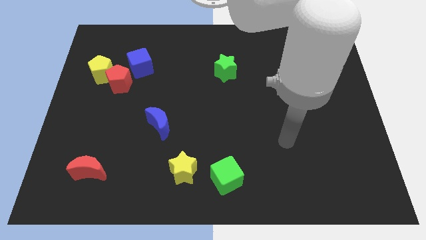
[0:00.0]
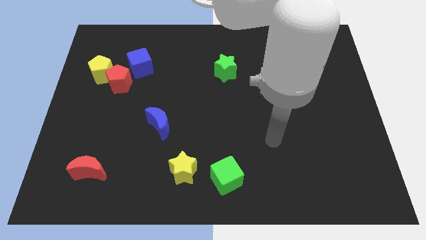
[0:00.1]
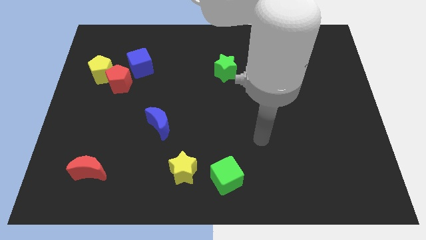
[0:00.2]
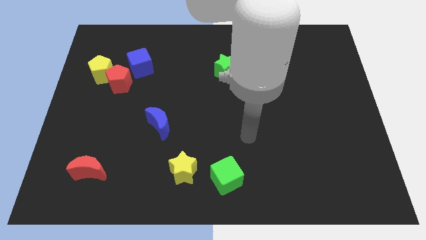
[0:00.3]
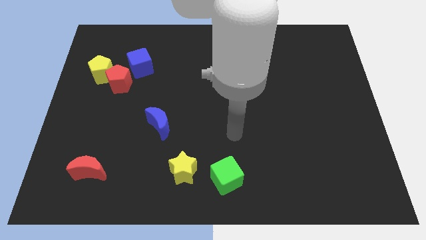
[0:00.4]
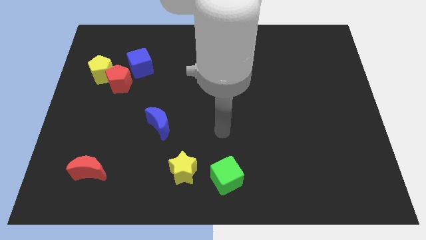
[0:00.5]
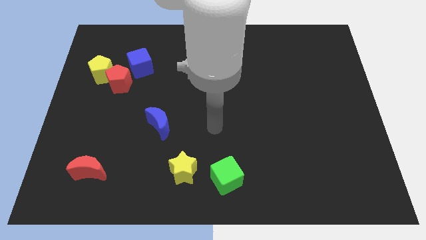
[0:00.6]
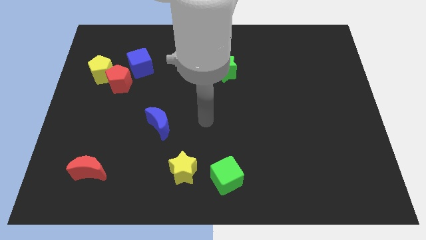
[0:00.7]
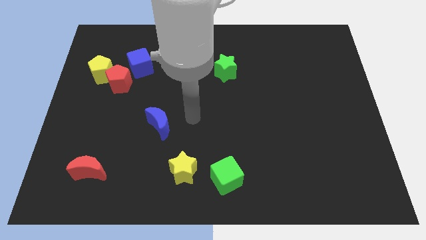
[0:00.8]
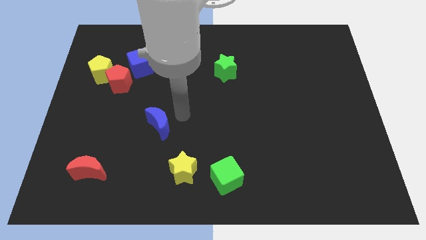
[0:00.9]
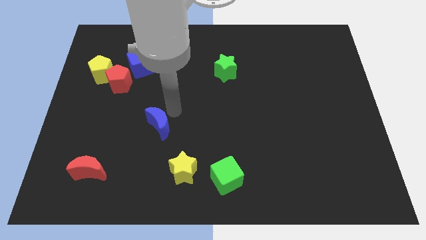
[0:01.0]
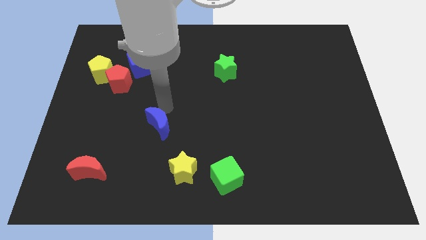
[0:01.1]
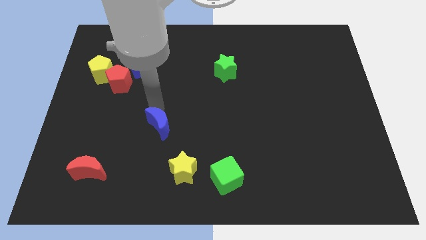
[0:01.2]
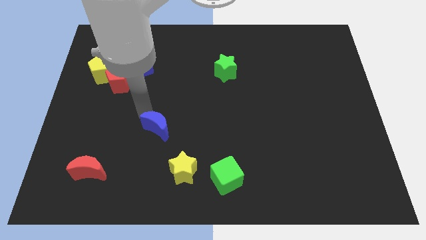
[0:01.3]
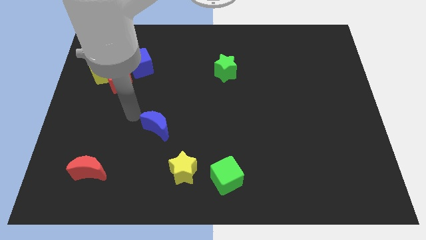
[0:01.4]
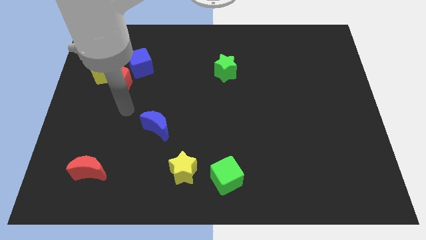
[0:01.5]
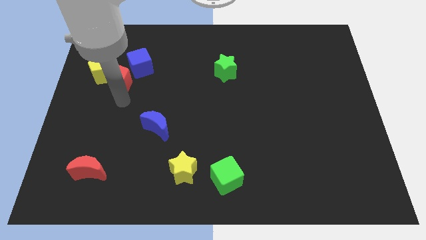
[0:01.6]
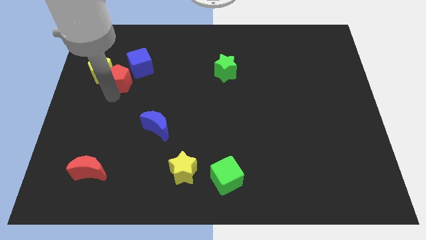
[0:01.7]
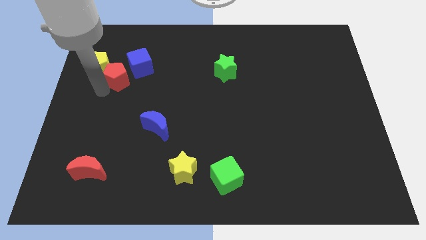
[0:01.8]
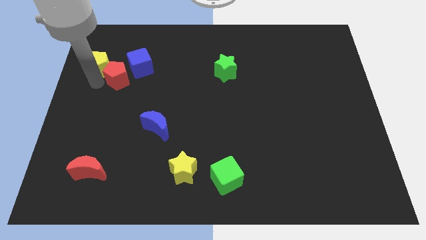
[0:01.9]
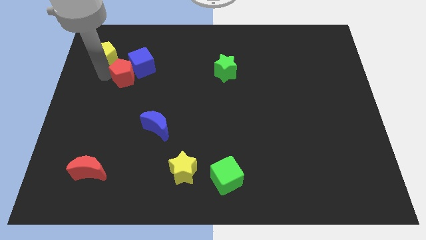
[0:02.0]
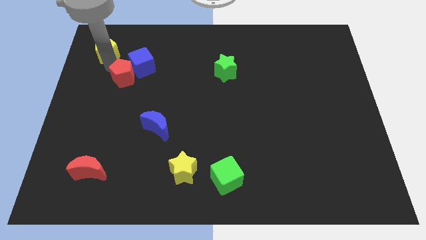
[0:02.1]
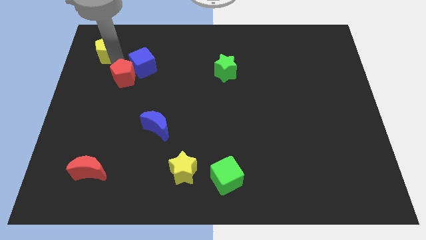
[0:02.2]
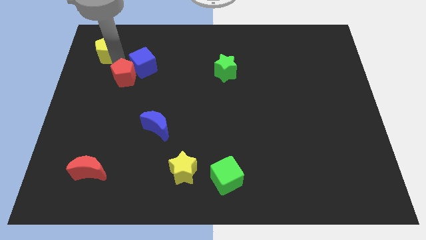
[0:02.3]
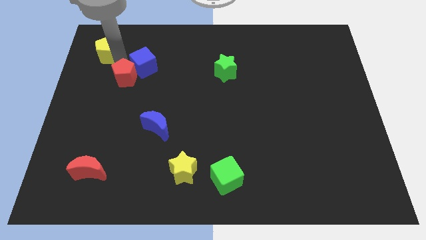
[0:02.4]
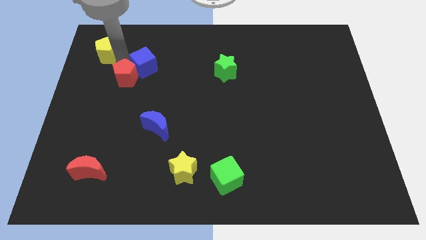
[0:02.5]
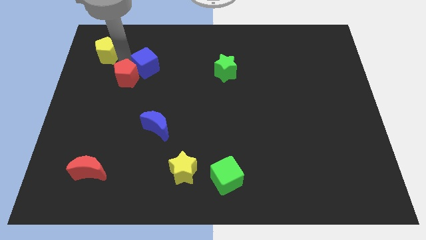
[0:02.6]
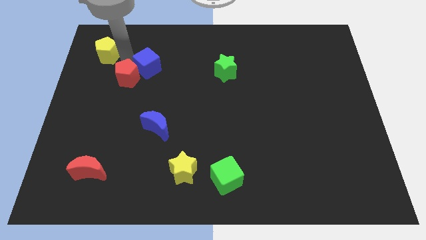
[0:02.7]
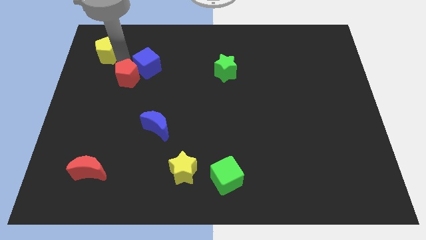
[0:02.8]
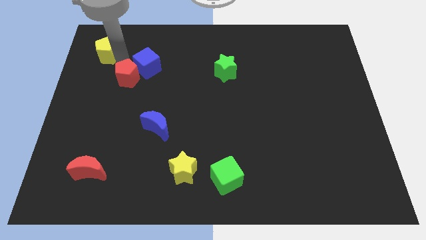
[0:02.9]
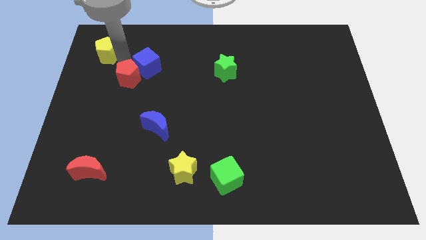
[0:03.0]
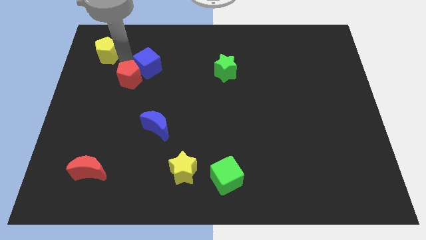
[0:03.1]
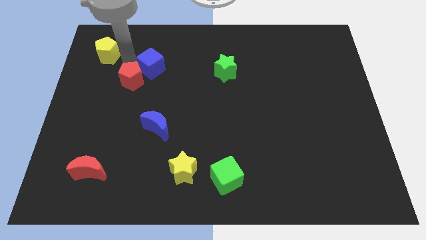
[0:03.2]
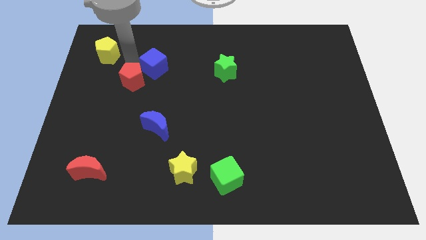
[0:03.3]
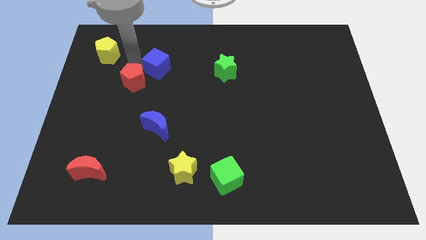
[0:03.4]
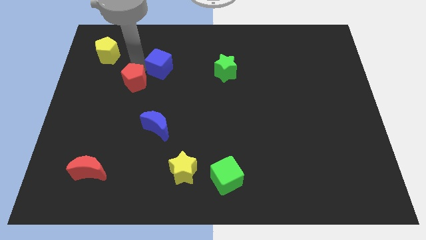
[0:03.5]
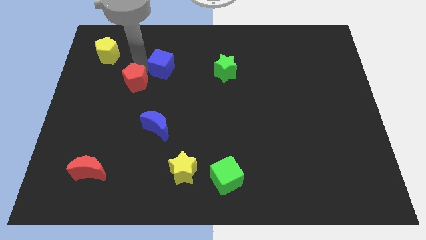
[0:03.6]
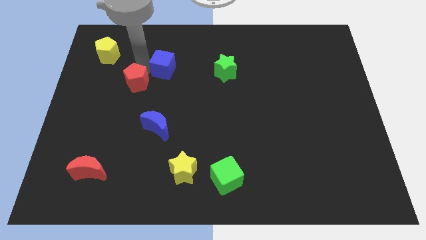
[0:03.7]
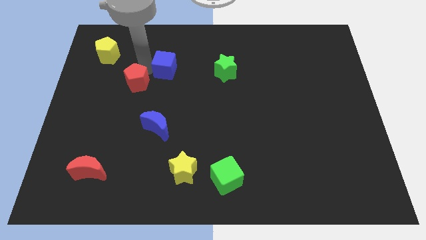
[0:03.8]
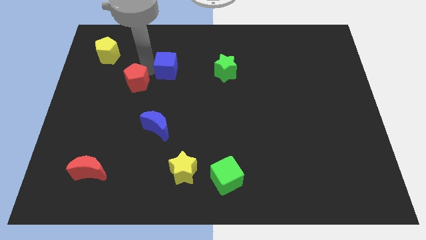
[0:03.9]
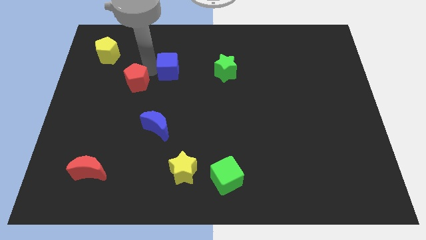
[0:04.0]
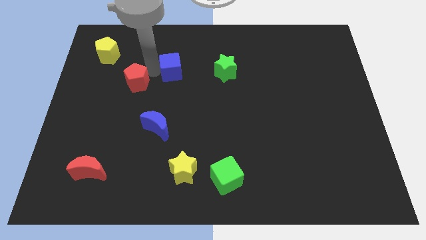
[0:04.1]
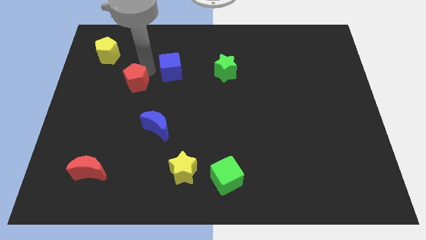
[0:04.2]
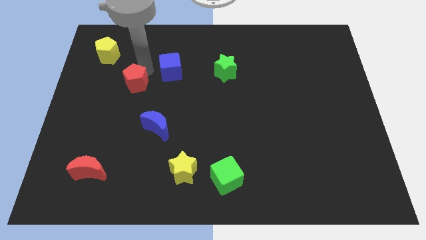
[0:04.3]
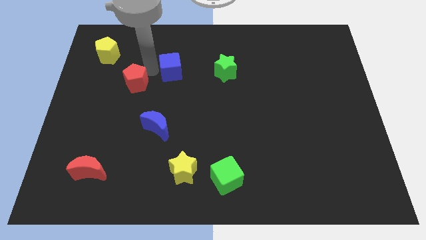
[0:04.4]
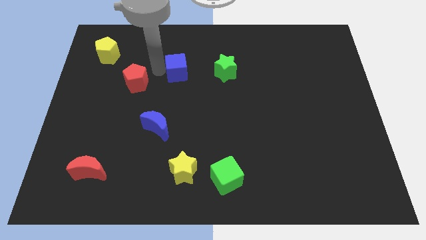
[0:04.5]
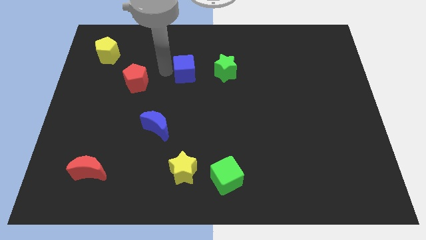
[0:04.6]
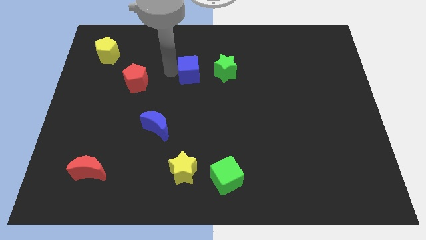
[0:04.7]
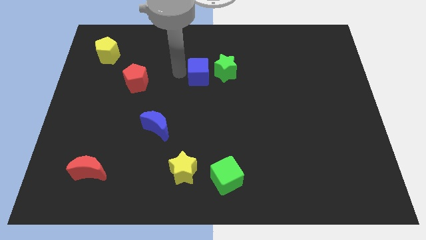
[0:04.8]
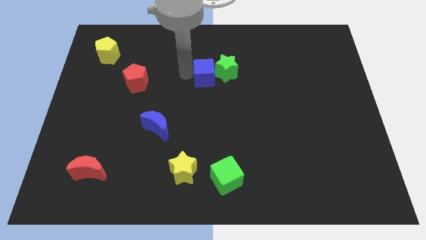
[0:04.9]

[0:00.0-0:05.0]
move the blue cube close to the green star

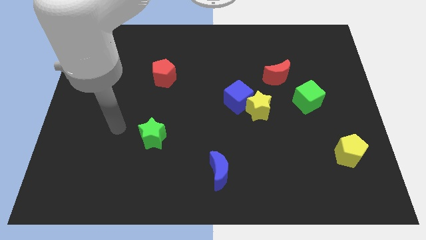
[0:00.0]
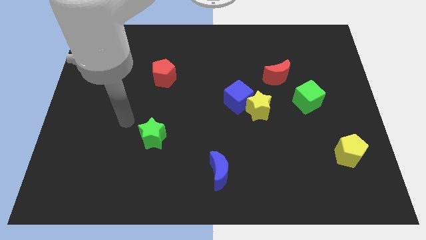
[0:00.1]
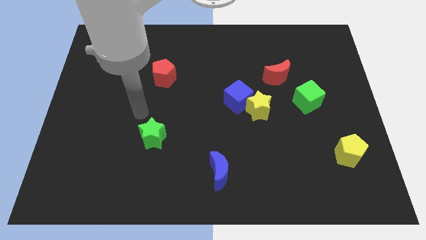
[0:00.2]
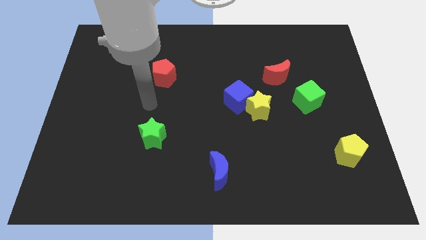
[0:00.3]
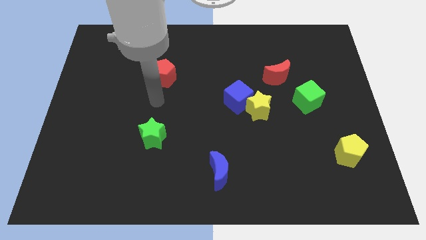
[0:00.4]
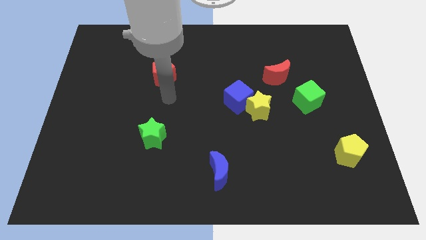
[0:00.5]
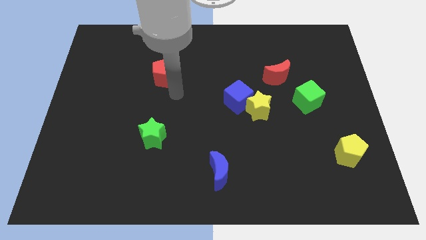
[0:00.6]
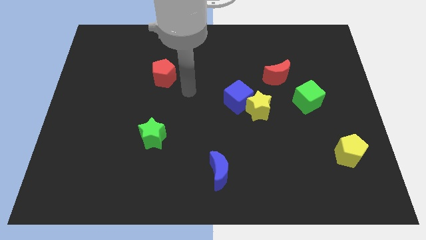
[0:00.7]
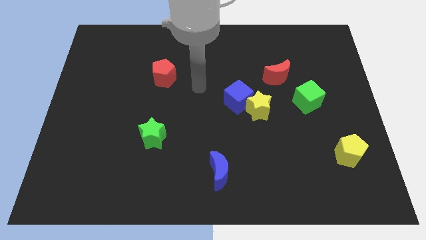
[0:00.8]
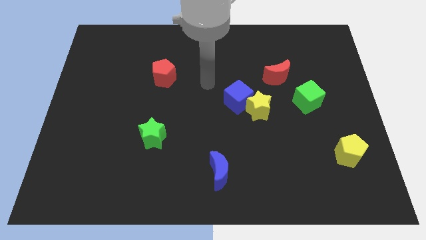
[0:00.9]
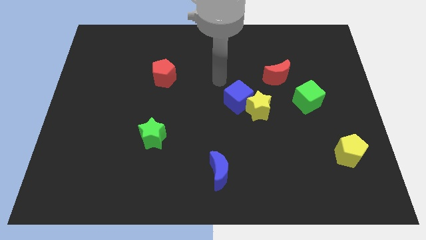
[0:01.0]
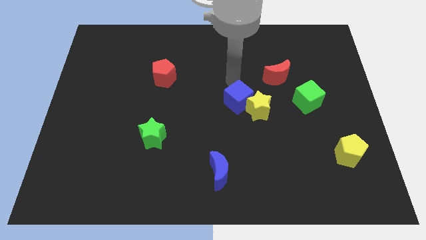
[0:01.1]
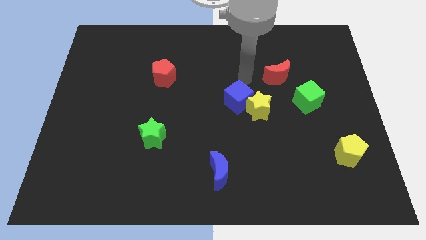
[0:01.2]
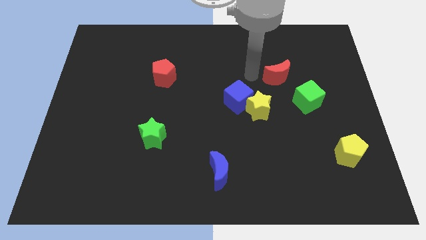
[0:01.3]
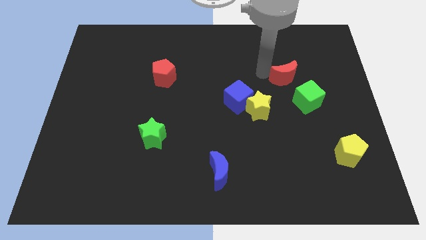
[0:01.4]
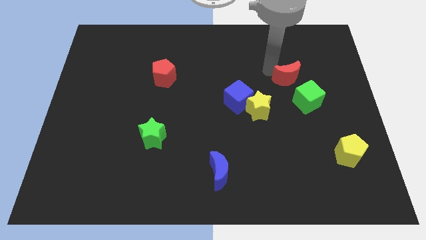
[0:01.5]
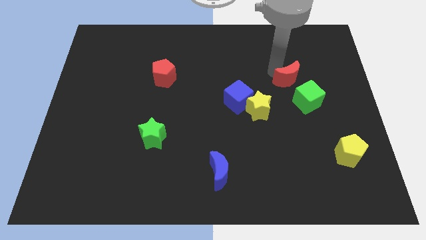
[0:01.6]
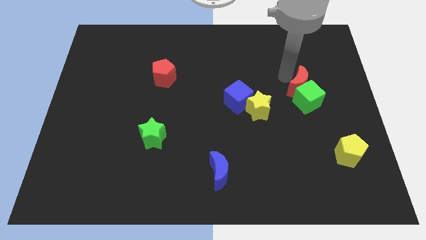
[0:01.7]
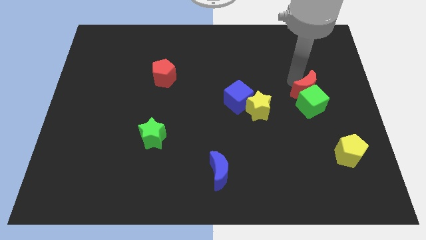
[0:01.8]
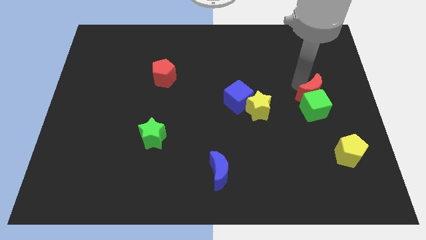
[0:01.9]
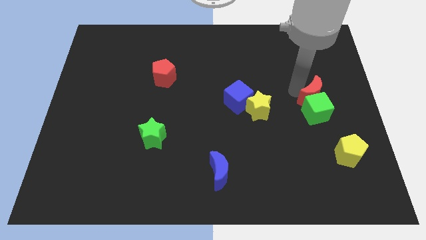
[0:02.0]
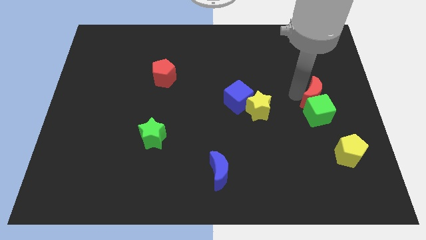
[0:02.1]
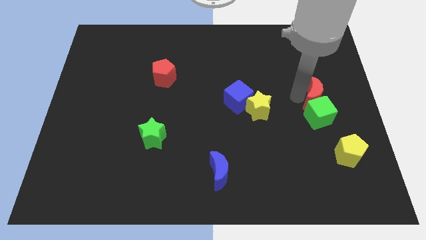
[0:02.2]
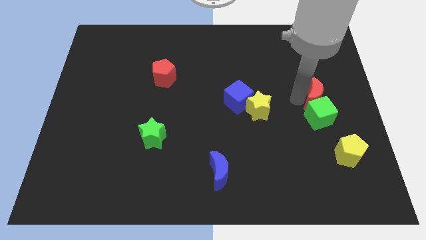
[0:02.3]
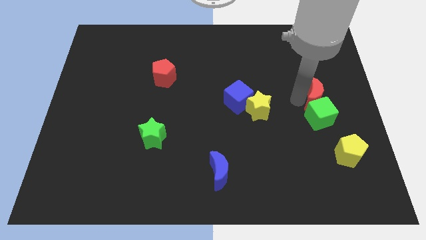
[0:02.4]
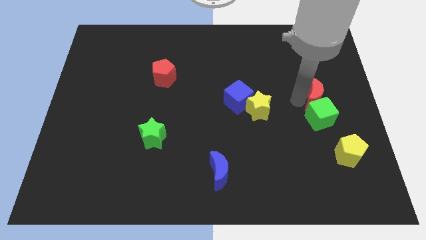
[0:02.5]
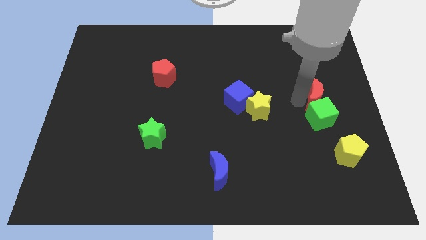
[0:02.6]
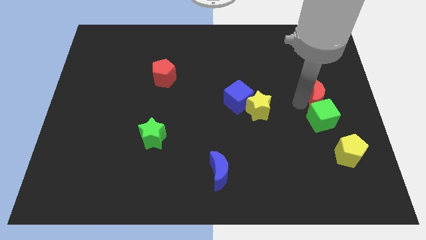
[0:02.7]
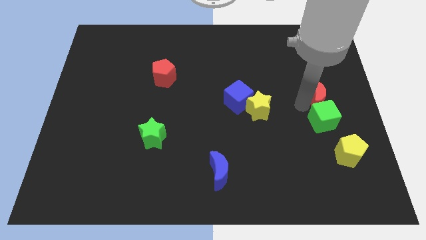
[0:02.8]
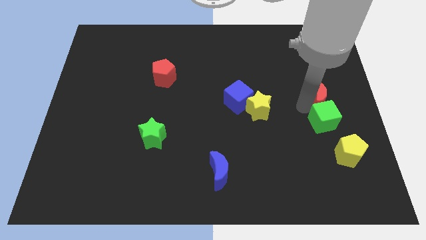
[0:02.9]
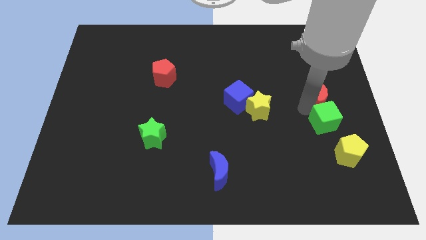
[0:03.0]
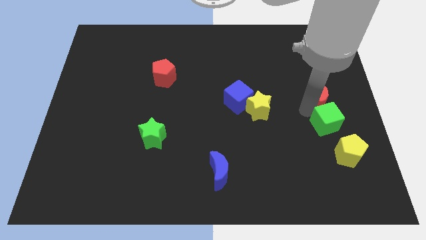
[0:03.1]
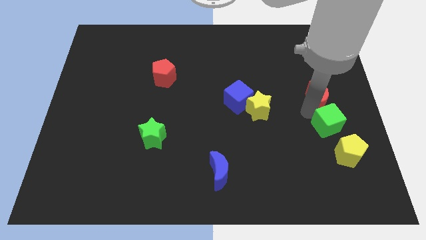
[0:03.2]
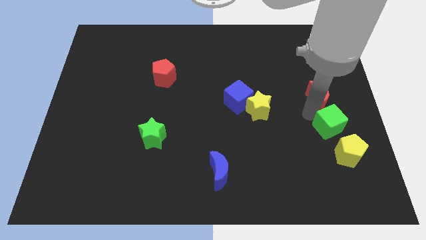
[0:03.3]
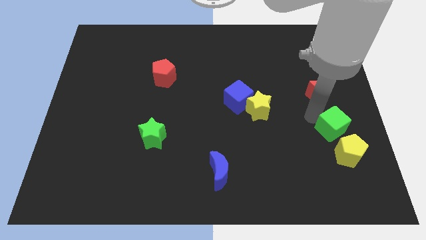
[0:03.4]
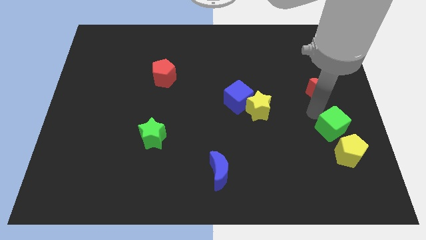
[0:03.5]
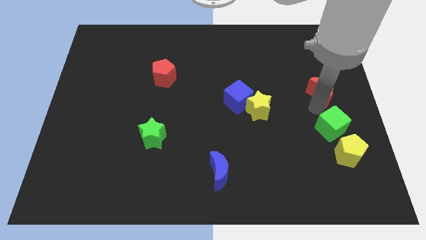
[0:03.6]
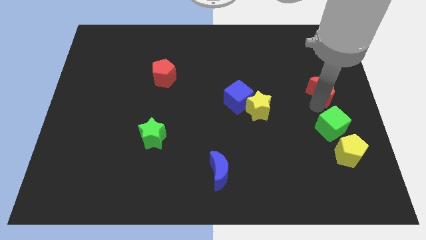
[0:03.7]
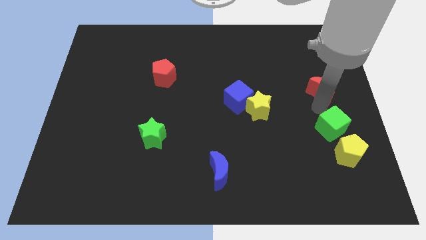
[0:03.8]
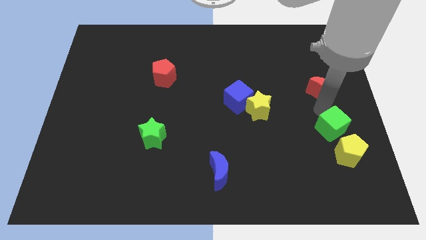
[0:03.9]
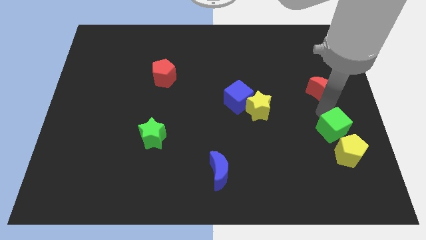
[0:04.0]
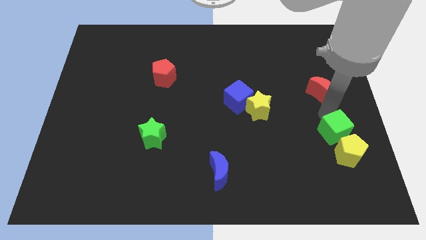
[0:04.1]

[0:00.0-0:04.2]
move the green cube next to the yellow pentagon
